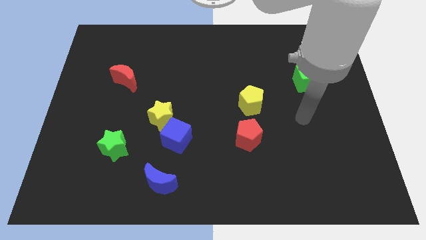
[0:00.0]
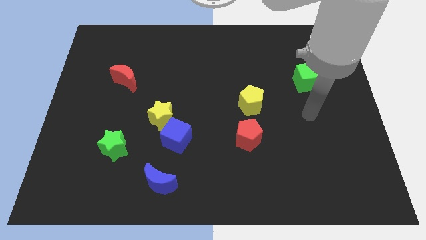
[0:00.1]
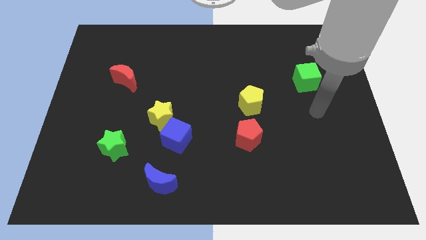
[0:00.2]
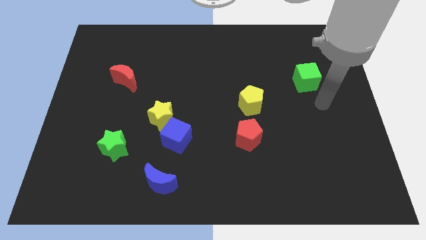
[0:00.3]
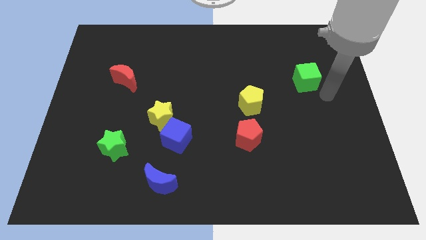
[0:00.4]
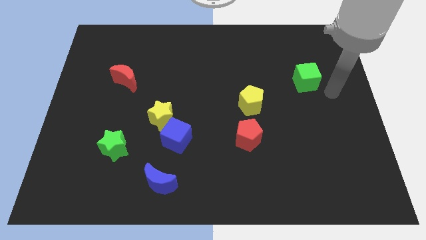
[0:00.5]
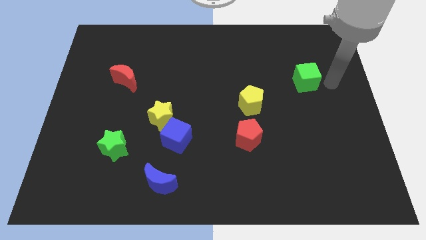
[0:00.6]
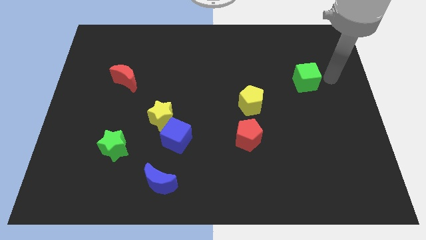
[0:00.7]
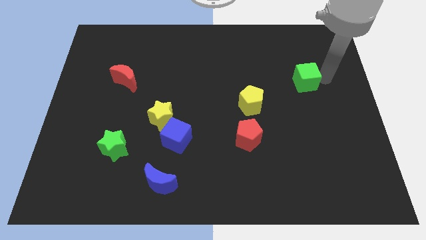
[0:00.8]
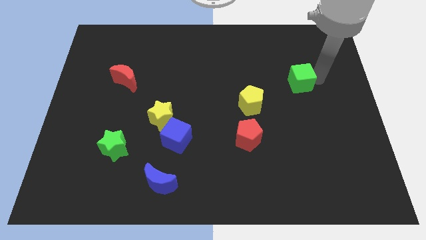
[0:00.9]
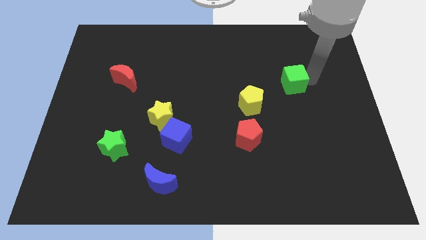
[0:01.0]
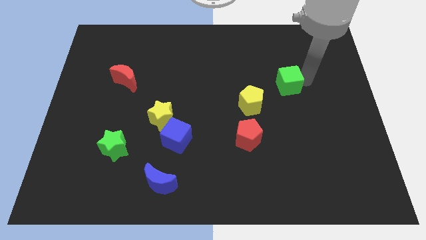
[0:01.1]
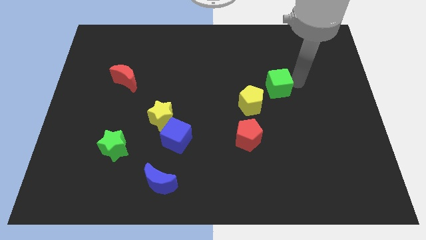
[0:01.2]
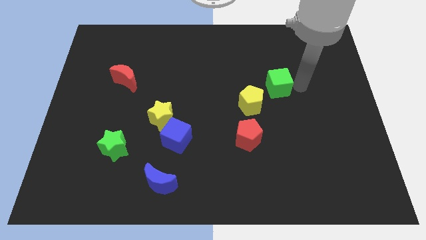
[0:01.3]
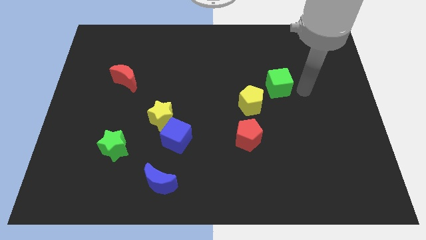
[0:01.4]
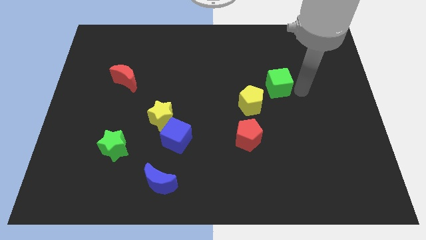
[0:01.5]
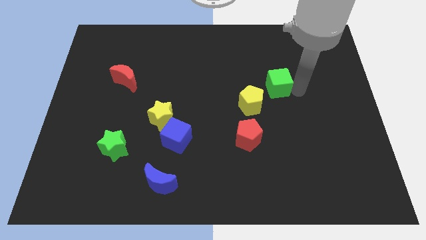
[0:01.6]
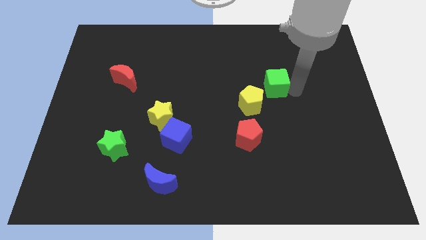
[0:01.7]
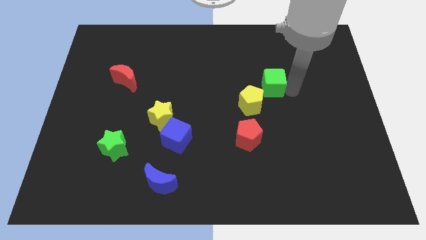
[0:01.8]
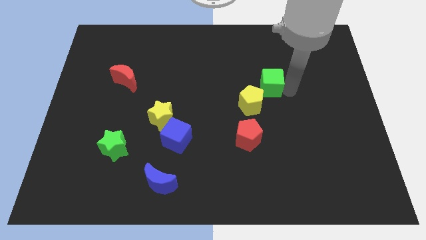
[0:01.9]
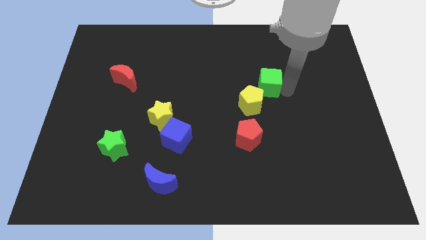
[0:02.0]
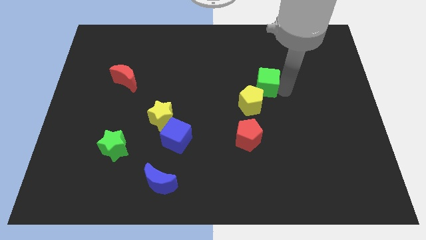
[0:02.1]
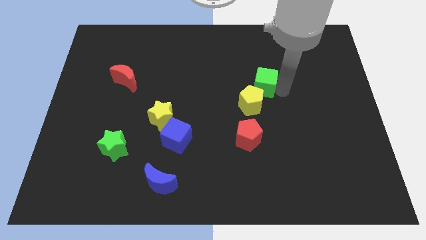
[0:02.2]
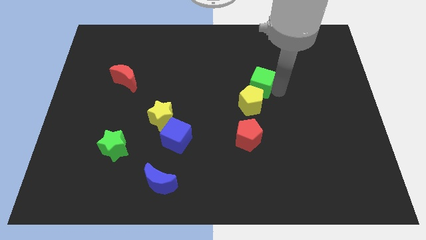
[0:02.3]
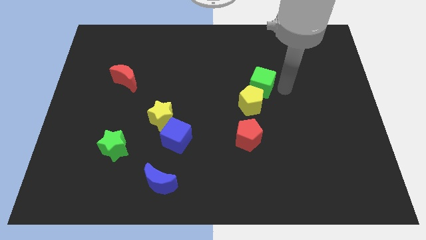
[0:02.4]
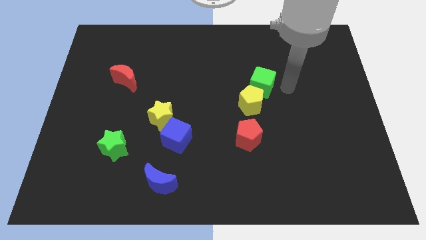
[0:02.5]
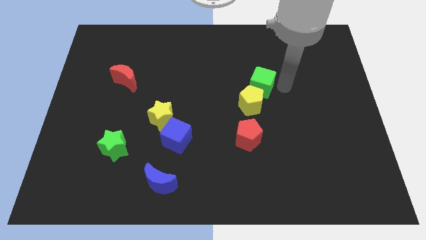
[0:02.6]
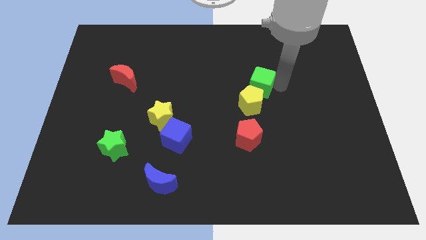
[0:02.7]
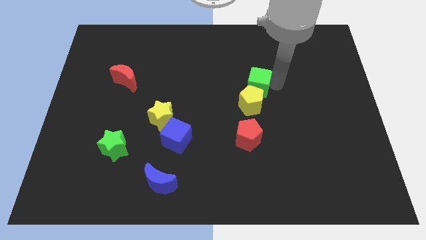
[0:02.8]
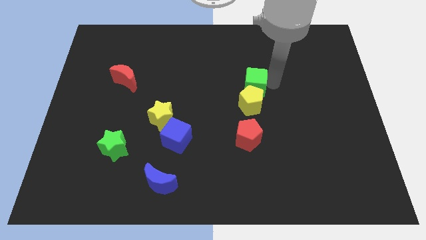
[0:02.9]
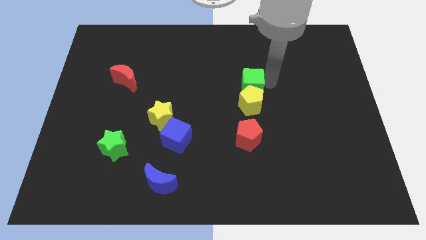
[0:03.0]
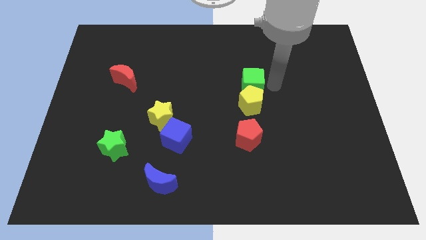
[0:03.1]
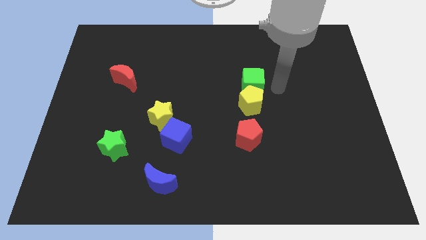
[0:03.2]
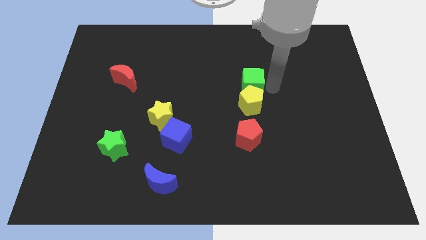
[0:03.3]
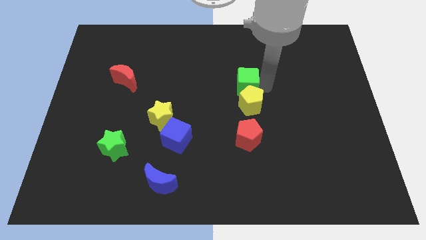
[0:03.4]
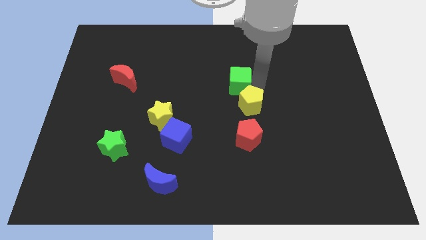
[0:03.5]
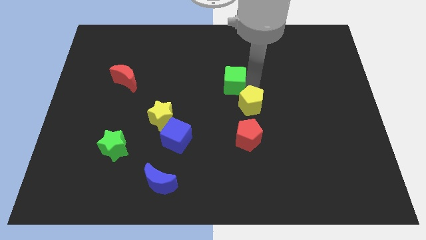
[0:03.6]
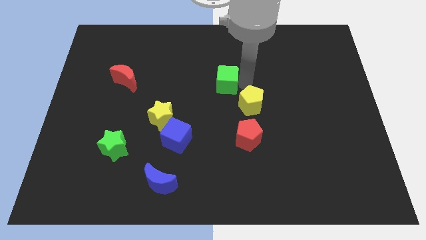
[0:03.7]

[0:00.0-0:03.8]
slide the green cube left

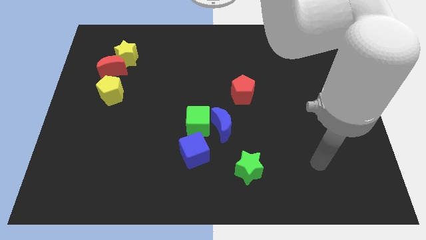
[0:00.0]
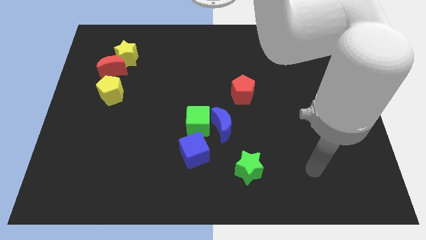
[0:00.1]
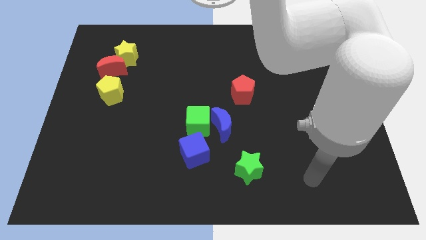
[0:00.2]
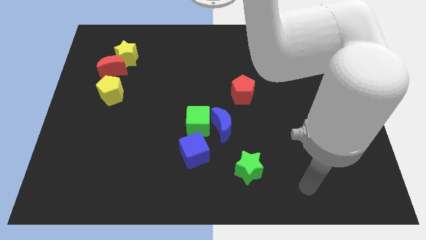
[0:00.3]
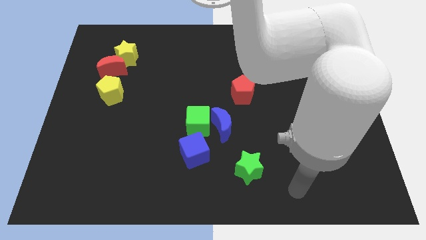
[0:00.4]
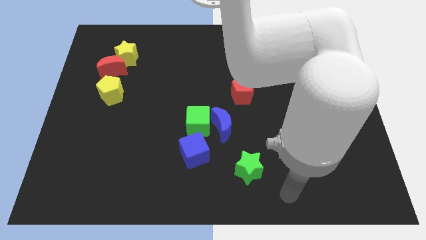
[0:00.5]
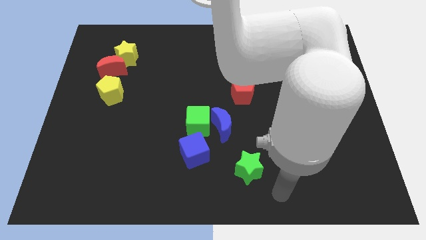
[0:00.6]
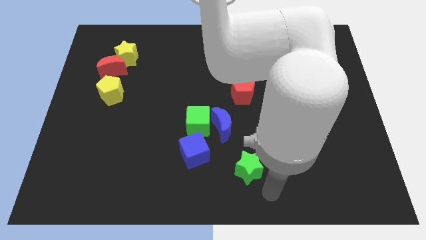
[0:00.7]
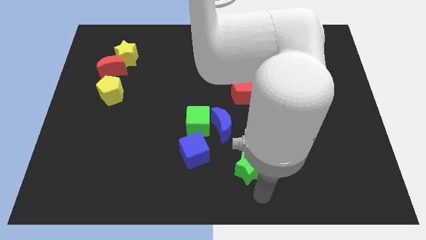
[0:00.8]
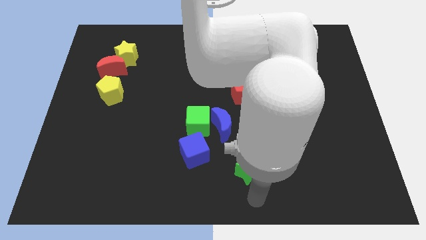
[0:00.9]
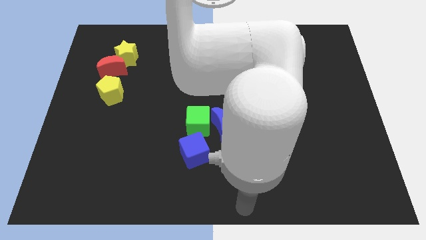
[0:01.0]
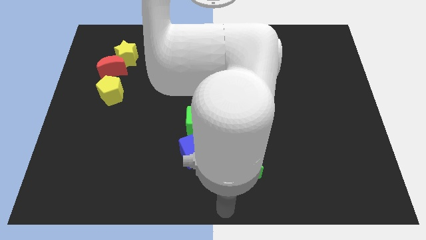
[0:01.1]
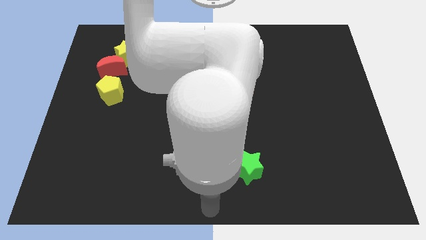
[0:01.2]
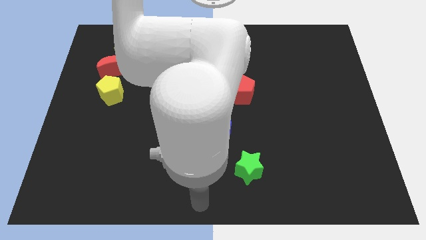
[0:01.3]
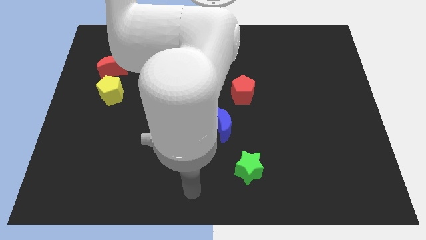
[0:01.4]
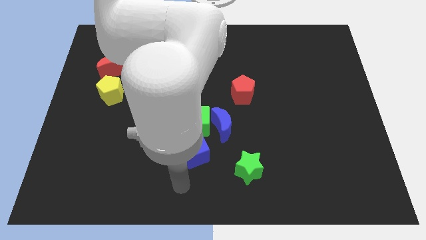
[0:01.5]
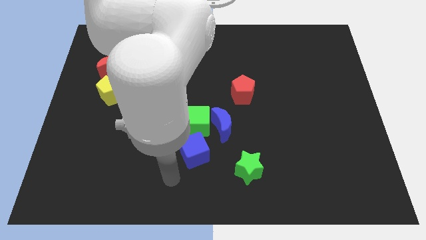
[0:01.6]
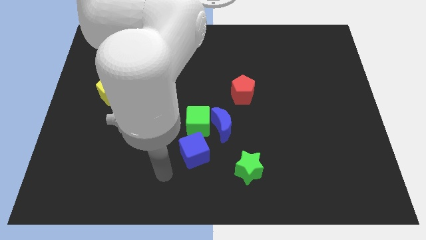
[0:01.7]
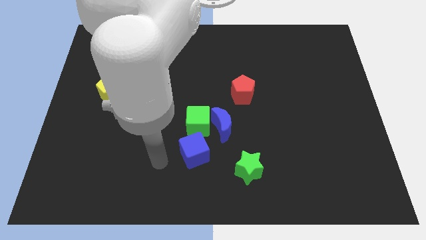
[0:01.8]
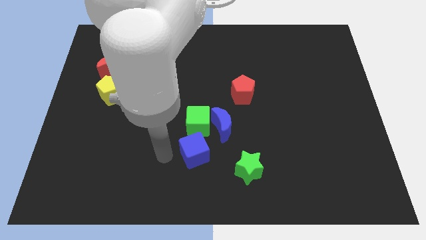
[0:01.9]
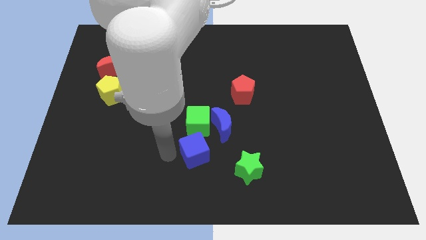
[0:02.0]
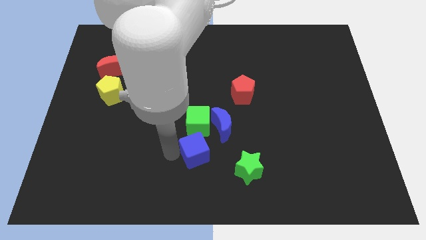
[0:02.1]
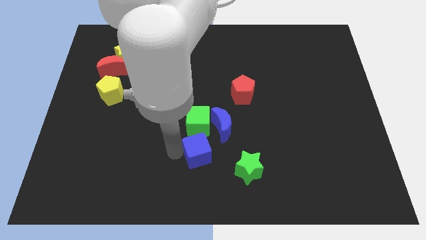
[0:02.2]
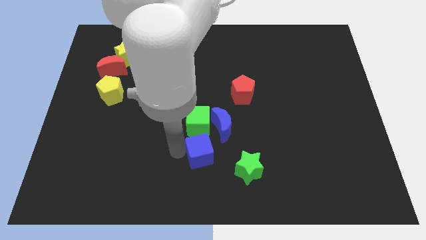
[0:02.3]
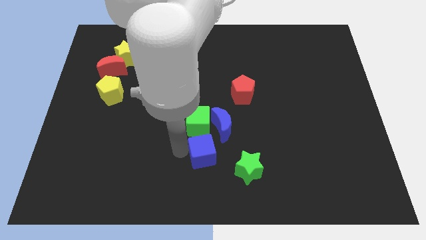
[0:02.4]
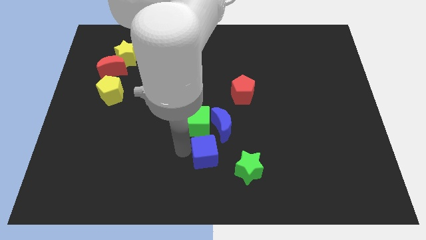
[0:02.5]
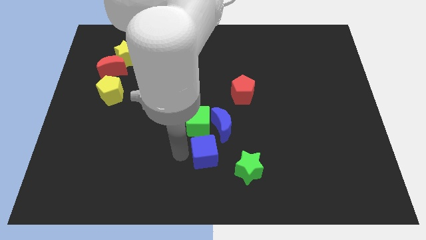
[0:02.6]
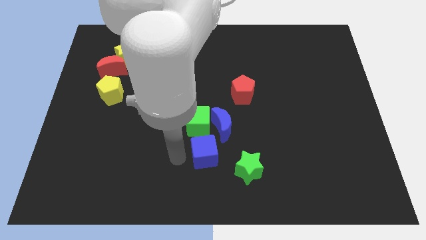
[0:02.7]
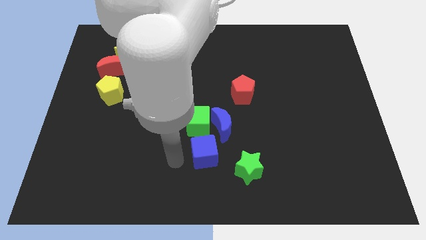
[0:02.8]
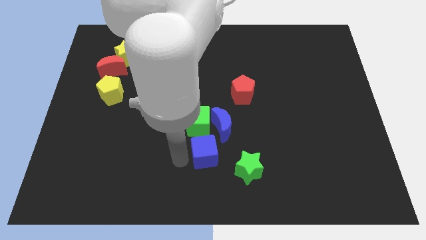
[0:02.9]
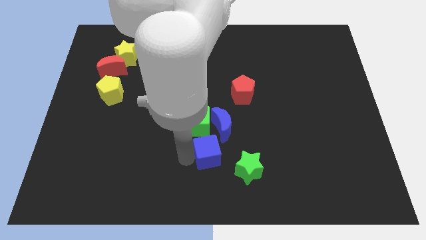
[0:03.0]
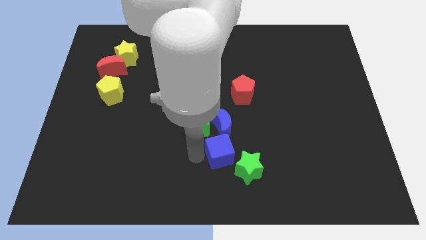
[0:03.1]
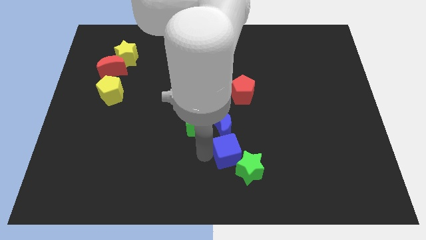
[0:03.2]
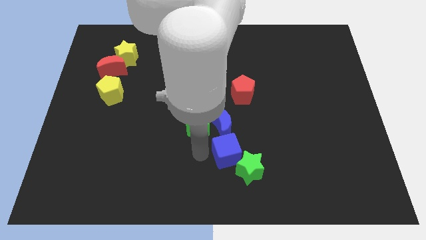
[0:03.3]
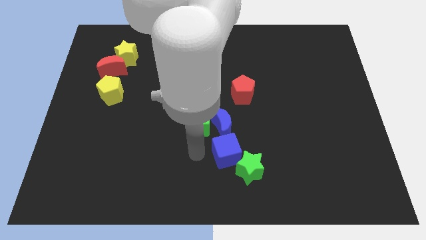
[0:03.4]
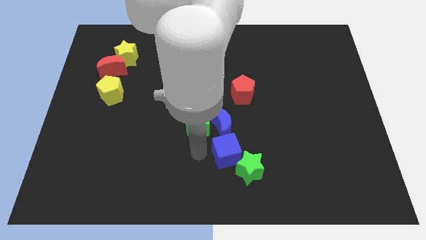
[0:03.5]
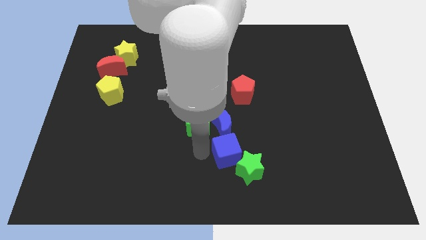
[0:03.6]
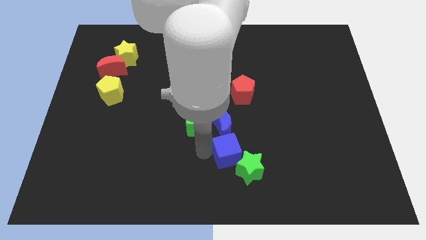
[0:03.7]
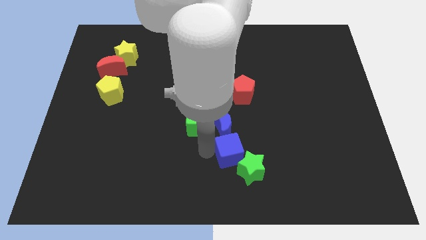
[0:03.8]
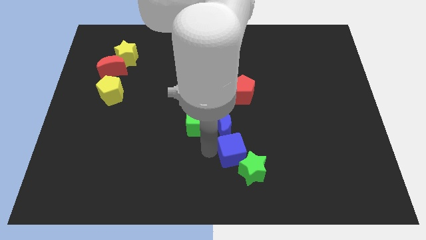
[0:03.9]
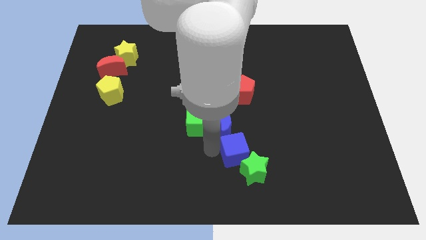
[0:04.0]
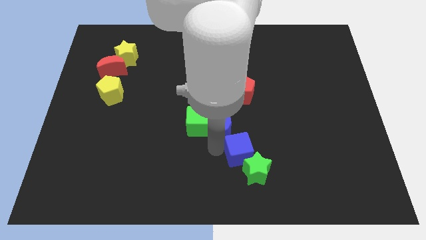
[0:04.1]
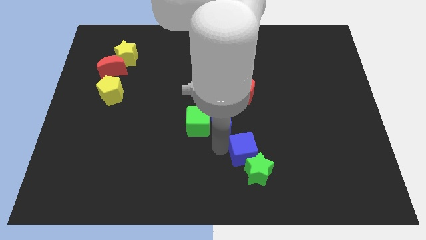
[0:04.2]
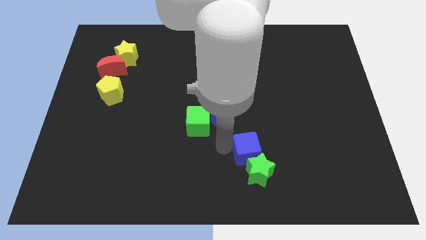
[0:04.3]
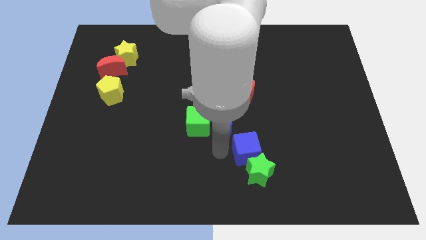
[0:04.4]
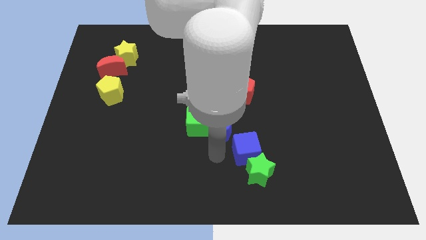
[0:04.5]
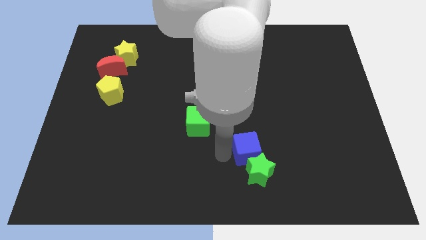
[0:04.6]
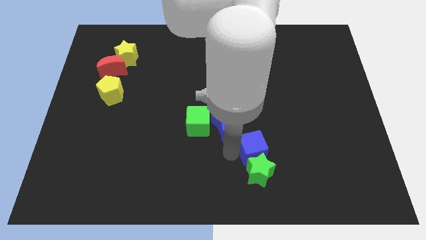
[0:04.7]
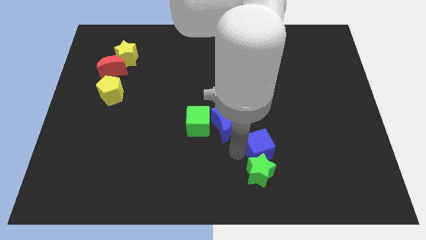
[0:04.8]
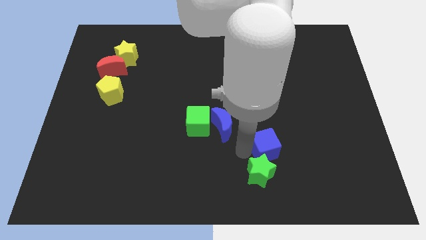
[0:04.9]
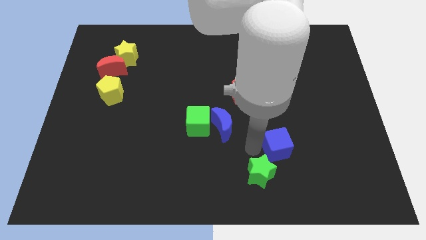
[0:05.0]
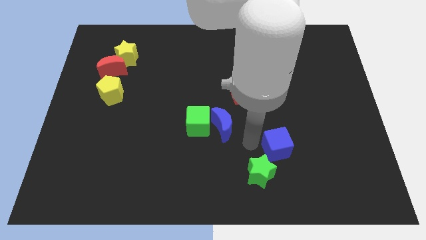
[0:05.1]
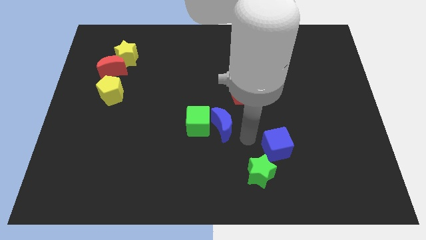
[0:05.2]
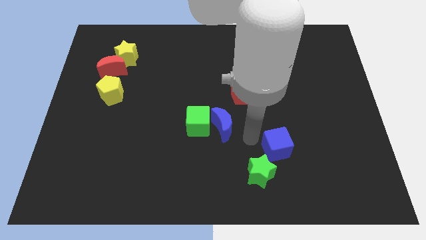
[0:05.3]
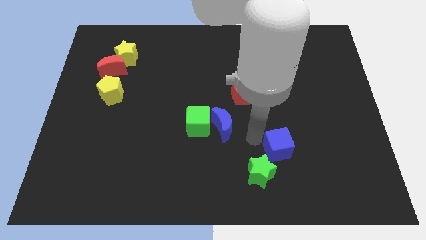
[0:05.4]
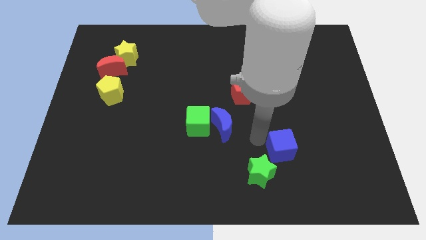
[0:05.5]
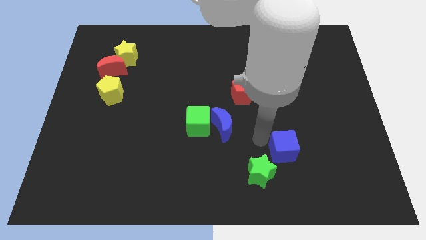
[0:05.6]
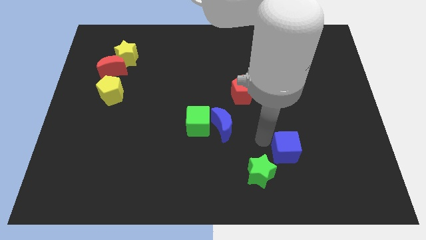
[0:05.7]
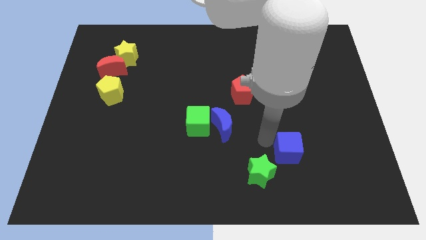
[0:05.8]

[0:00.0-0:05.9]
push the blue cube to the right
